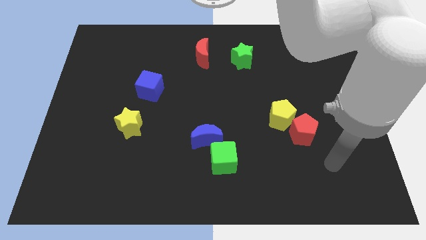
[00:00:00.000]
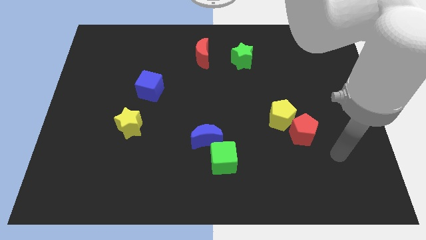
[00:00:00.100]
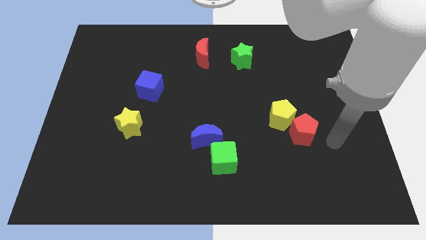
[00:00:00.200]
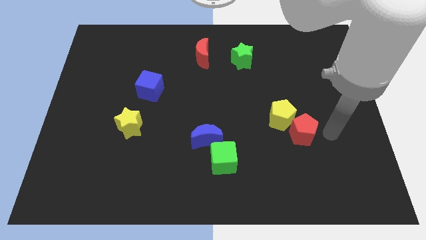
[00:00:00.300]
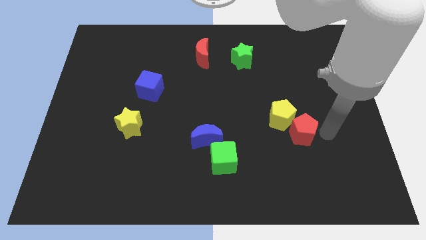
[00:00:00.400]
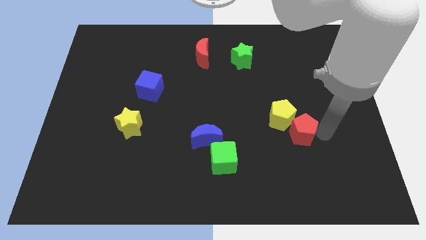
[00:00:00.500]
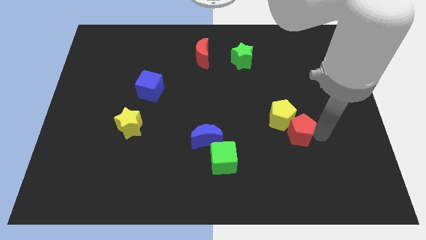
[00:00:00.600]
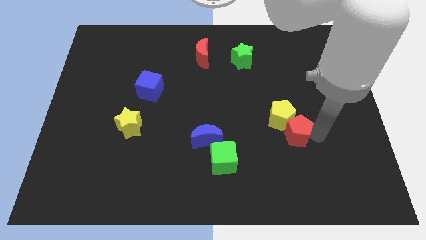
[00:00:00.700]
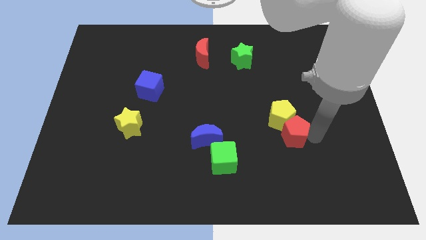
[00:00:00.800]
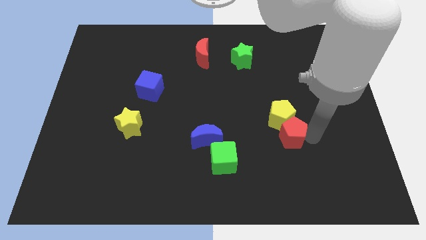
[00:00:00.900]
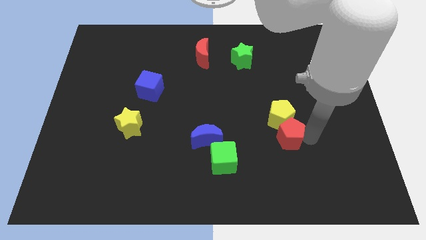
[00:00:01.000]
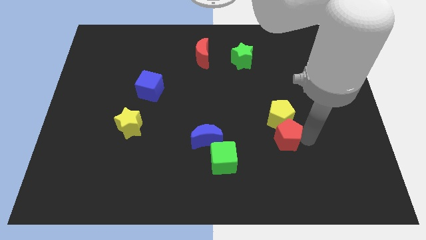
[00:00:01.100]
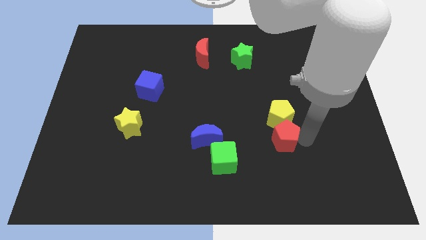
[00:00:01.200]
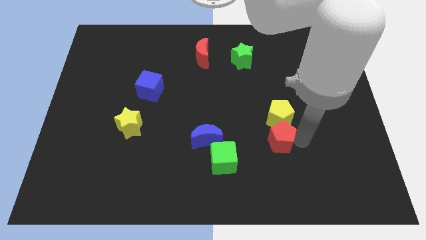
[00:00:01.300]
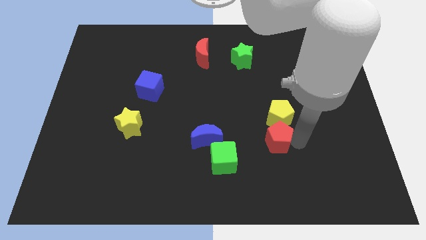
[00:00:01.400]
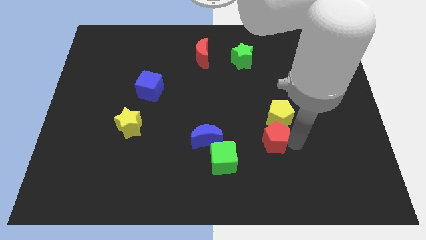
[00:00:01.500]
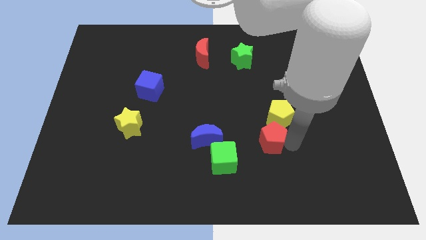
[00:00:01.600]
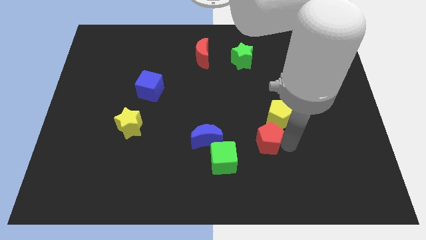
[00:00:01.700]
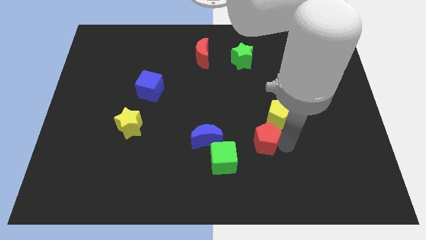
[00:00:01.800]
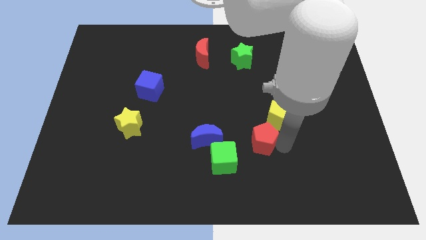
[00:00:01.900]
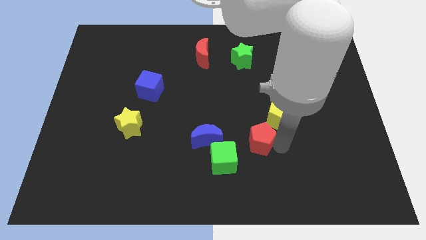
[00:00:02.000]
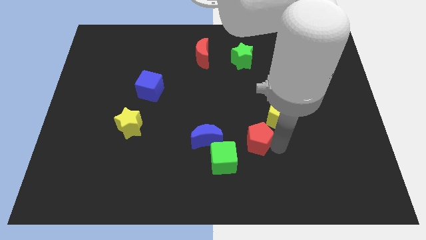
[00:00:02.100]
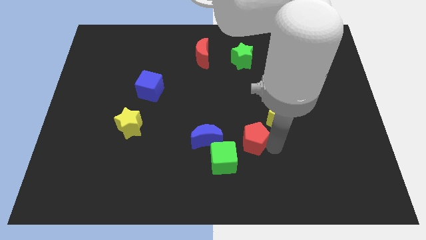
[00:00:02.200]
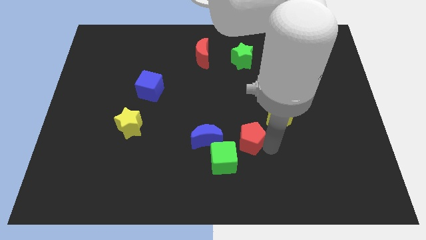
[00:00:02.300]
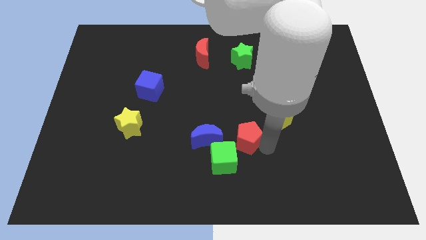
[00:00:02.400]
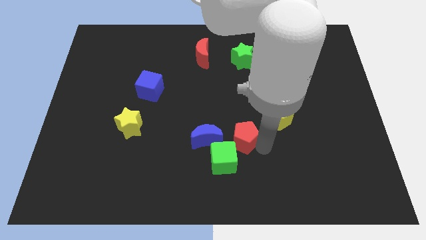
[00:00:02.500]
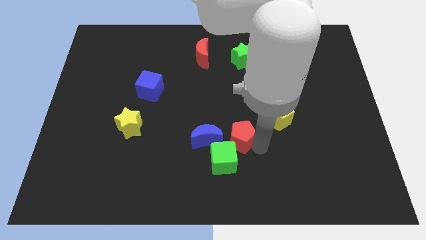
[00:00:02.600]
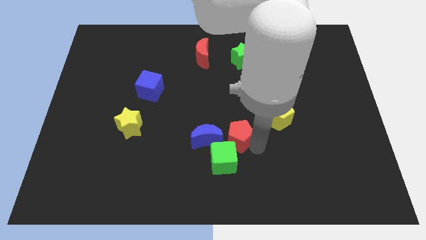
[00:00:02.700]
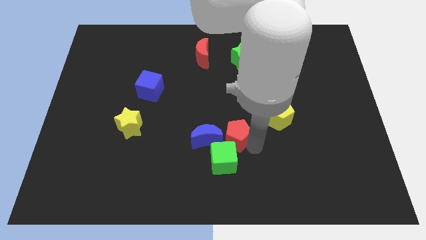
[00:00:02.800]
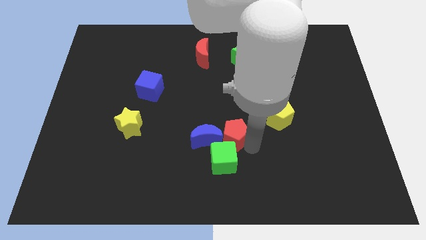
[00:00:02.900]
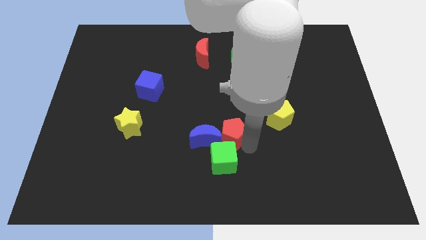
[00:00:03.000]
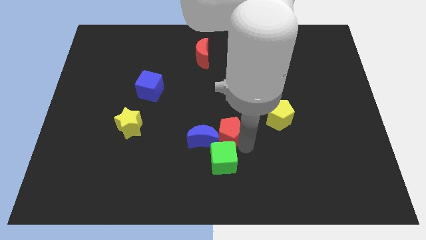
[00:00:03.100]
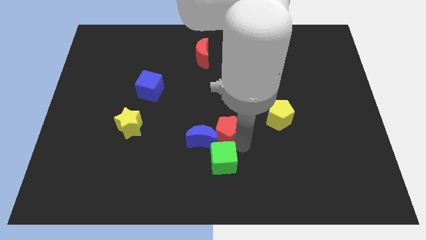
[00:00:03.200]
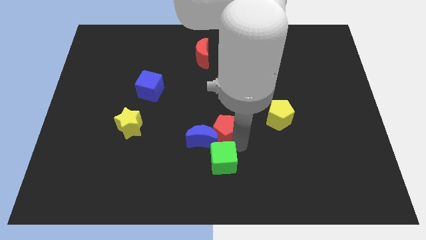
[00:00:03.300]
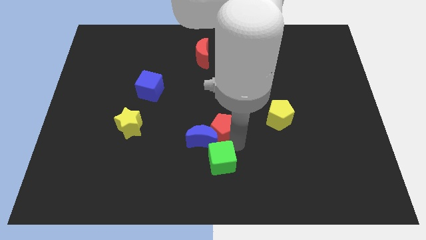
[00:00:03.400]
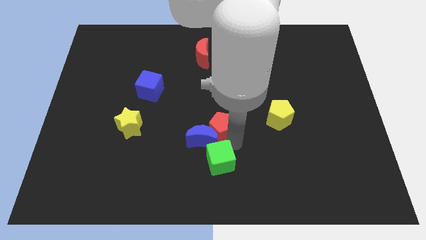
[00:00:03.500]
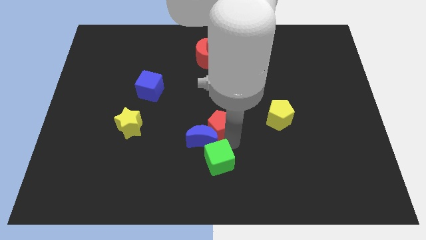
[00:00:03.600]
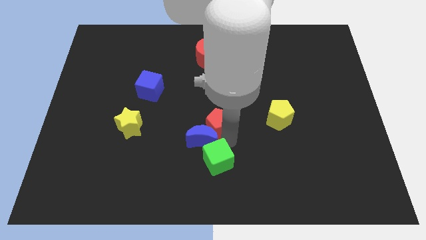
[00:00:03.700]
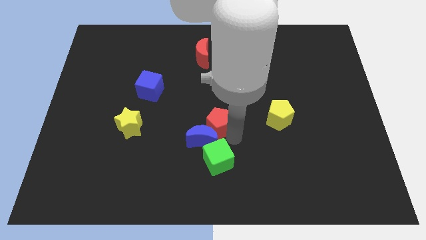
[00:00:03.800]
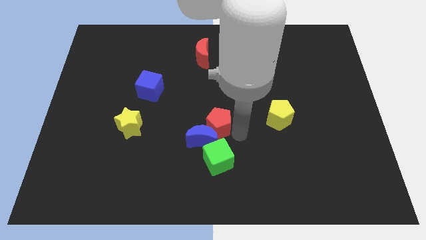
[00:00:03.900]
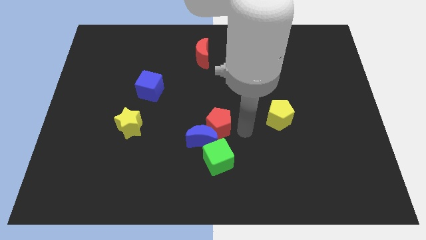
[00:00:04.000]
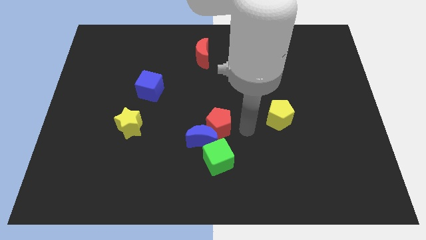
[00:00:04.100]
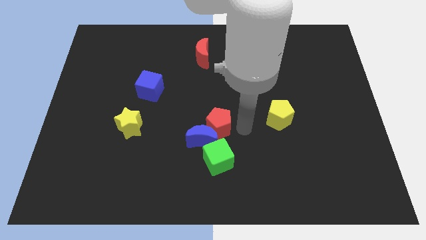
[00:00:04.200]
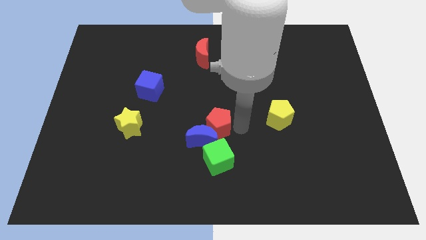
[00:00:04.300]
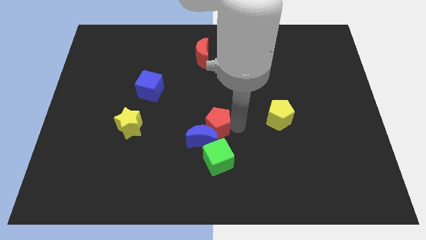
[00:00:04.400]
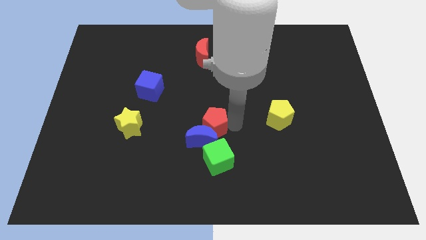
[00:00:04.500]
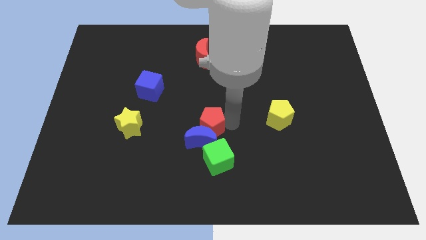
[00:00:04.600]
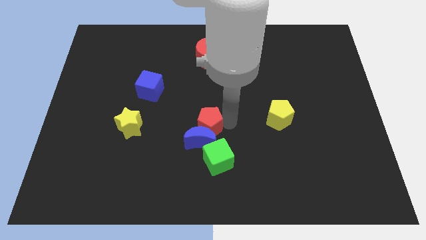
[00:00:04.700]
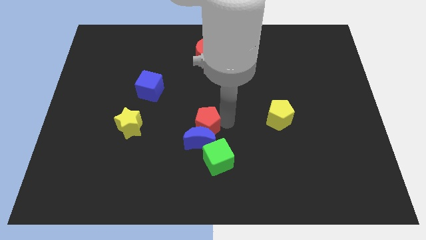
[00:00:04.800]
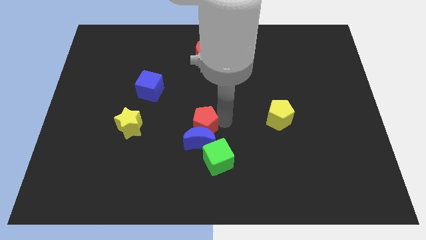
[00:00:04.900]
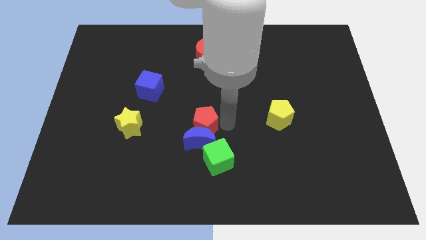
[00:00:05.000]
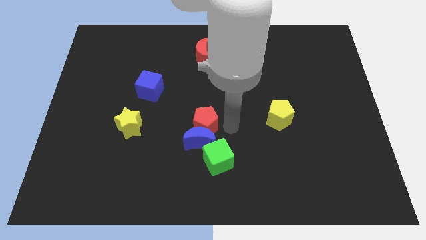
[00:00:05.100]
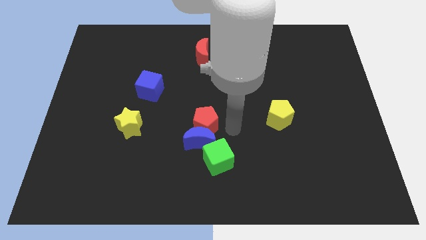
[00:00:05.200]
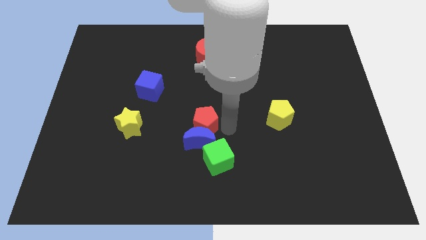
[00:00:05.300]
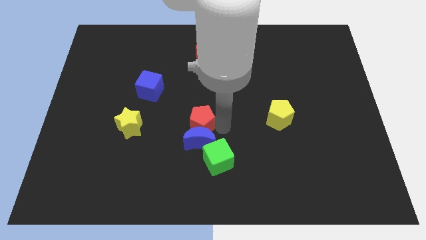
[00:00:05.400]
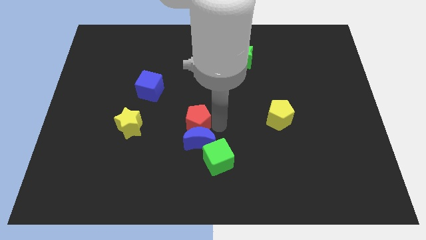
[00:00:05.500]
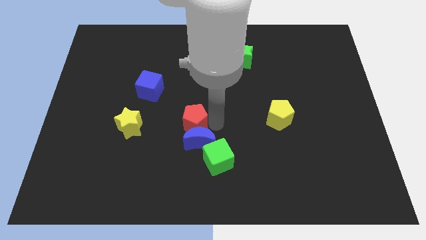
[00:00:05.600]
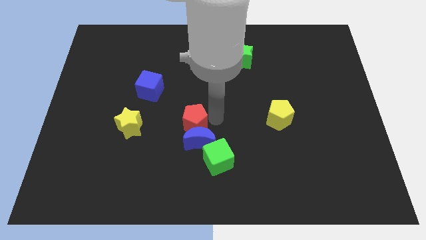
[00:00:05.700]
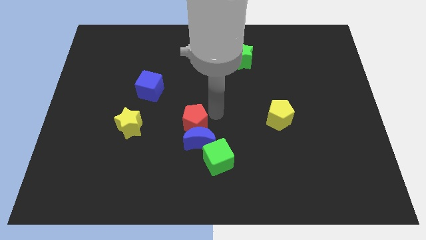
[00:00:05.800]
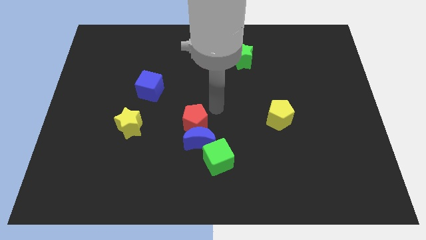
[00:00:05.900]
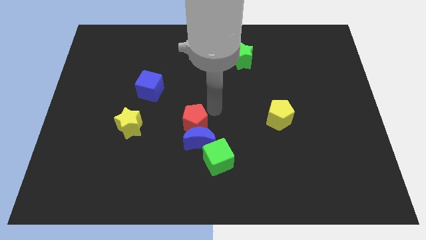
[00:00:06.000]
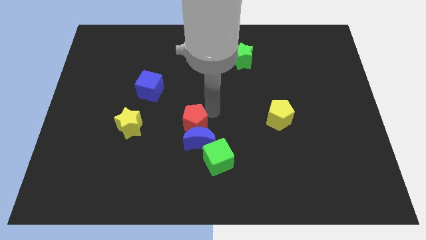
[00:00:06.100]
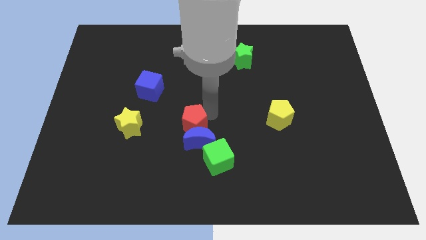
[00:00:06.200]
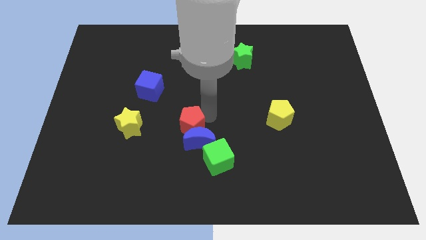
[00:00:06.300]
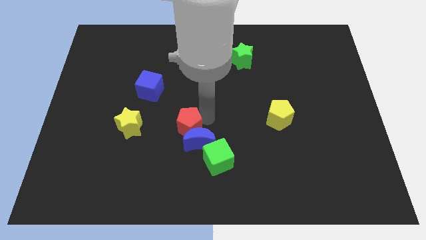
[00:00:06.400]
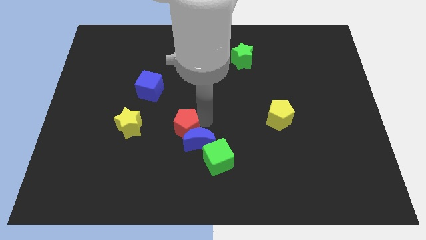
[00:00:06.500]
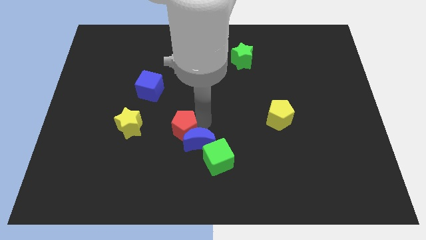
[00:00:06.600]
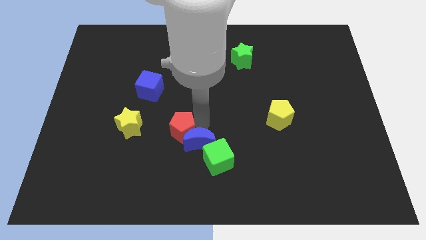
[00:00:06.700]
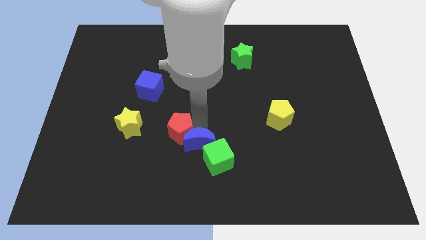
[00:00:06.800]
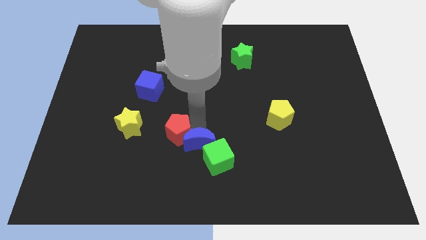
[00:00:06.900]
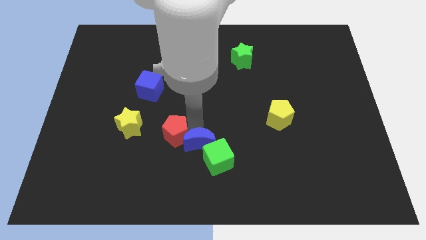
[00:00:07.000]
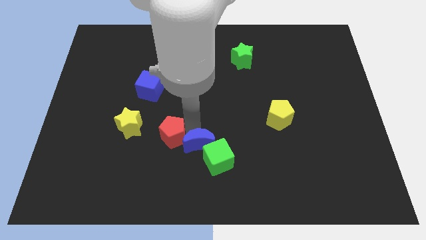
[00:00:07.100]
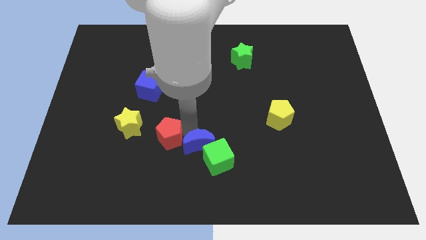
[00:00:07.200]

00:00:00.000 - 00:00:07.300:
slide the red pentagon to the bottom right side of the yellow star

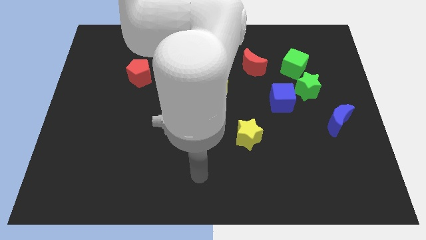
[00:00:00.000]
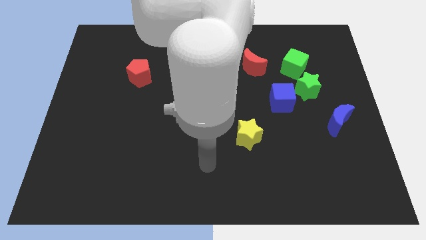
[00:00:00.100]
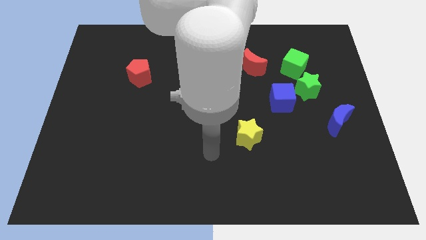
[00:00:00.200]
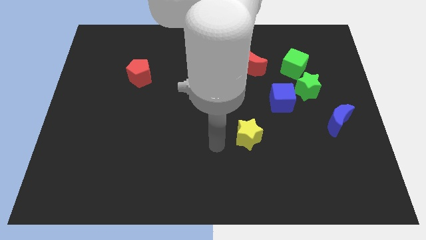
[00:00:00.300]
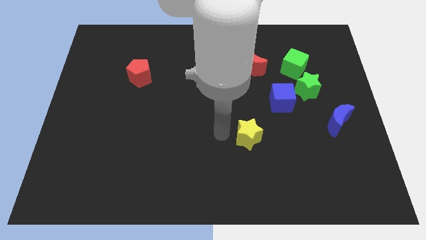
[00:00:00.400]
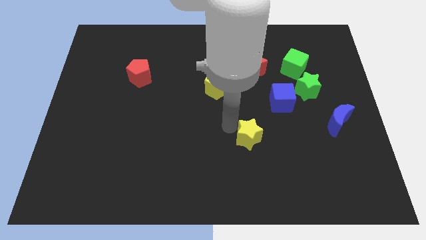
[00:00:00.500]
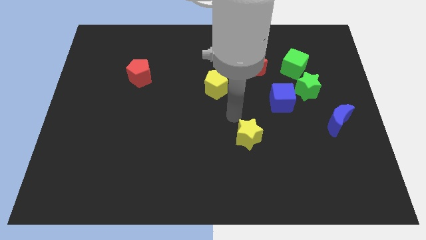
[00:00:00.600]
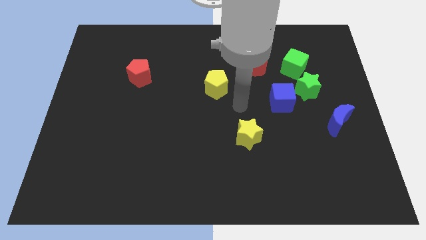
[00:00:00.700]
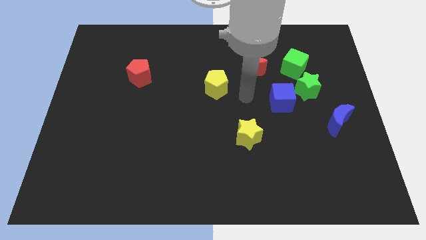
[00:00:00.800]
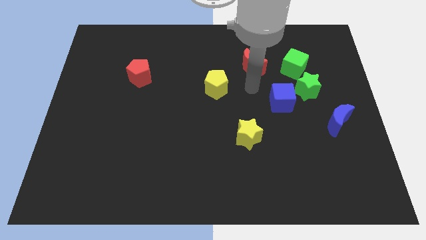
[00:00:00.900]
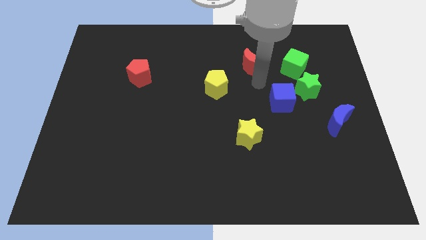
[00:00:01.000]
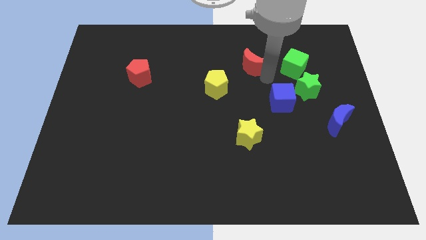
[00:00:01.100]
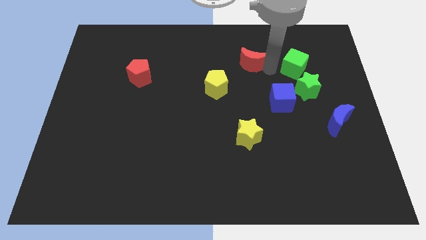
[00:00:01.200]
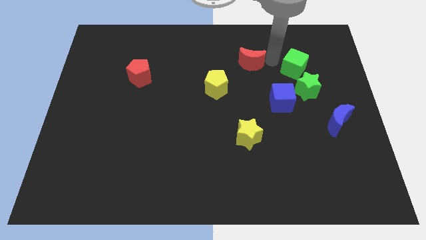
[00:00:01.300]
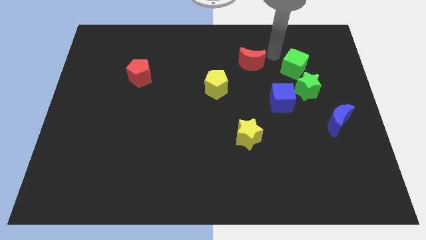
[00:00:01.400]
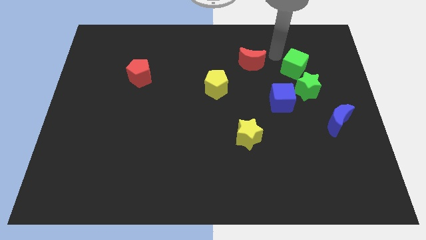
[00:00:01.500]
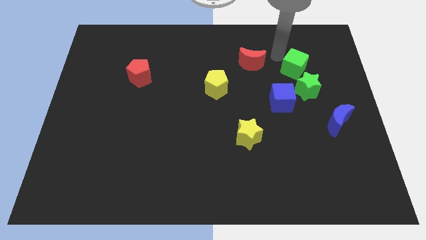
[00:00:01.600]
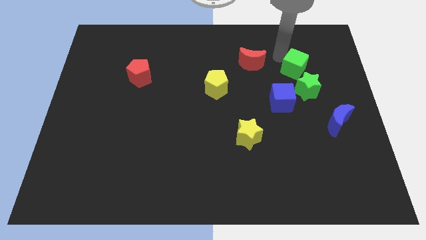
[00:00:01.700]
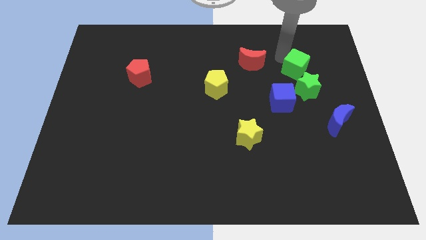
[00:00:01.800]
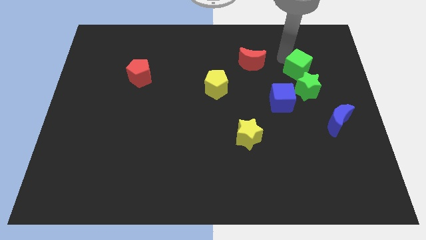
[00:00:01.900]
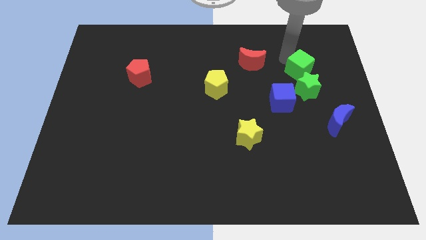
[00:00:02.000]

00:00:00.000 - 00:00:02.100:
slide the green cube to the top right side of the blue cube
